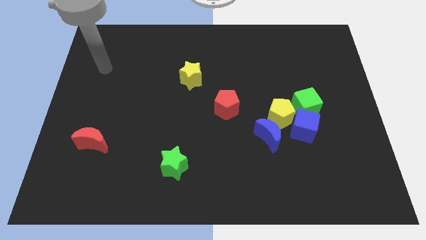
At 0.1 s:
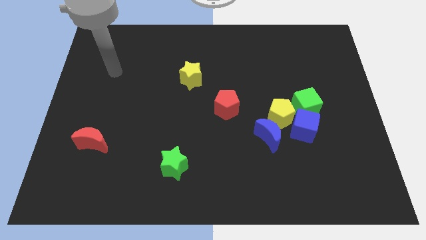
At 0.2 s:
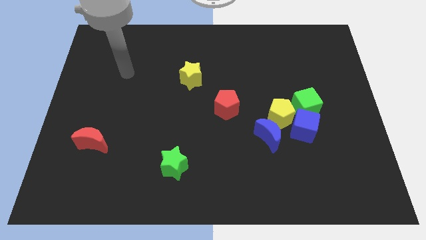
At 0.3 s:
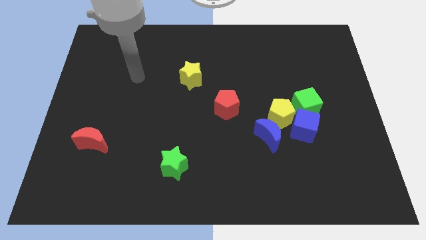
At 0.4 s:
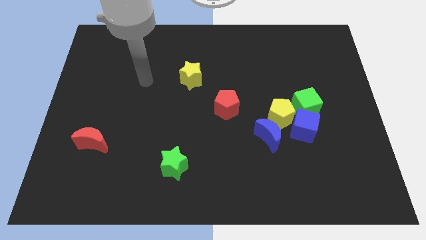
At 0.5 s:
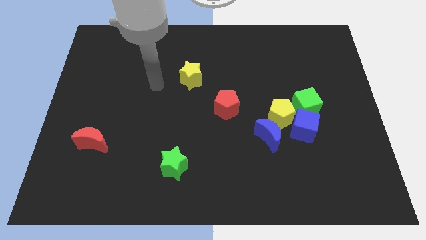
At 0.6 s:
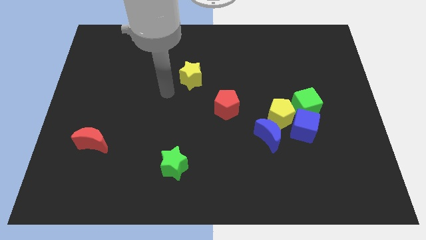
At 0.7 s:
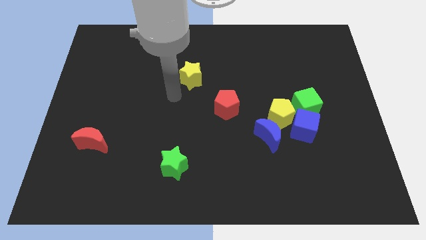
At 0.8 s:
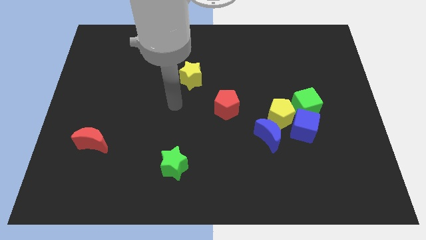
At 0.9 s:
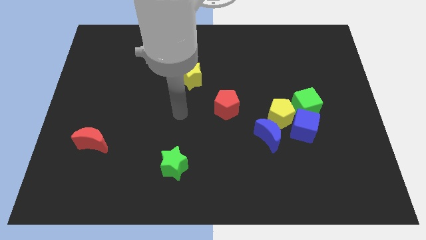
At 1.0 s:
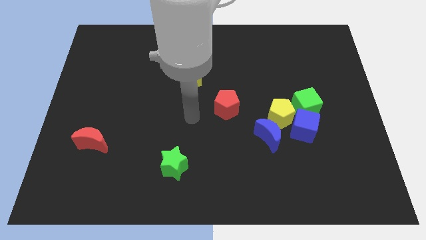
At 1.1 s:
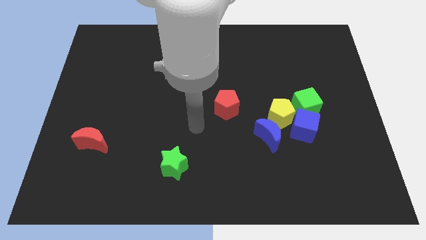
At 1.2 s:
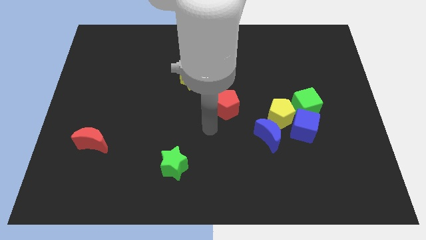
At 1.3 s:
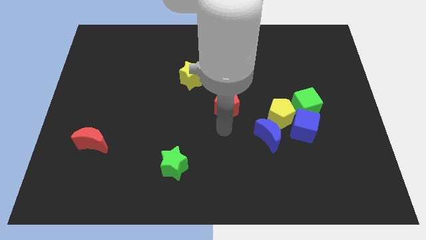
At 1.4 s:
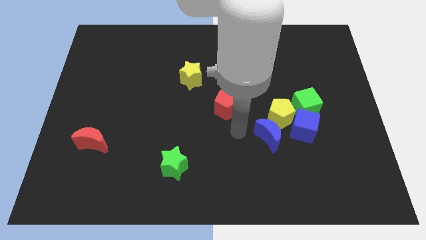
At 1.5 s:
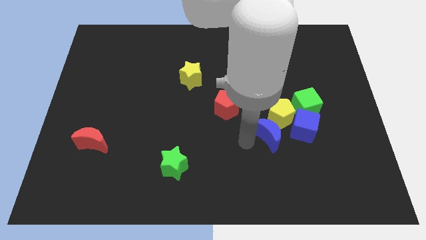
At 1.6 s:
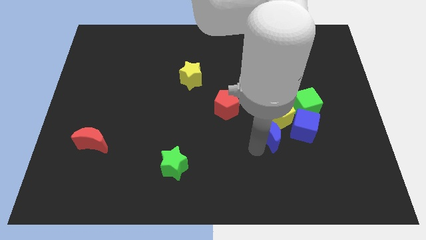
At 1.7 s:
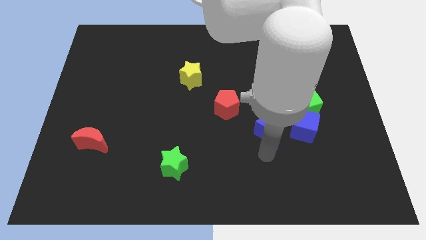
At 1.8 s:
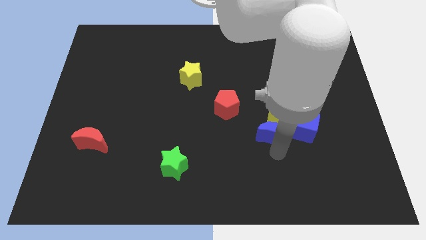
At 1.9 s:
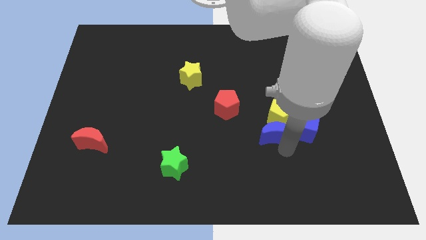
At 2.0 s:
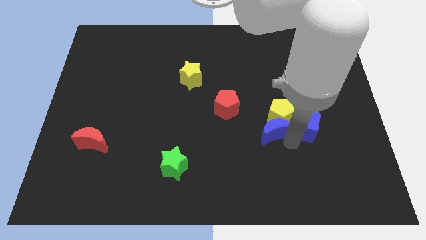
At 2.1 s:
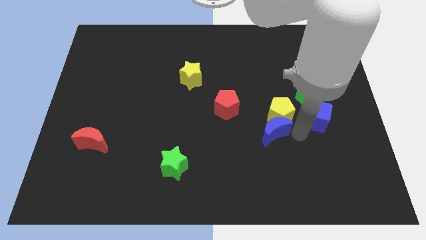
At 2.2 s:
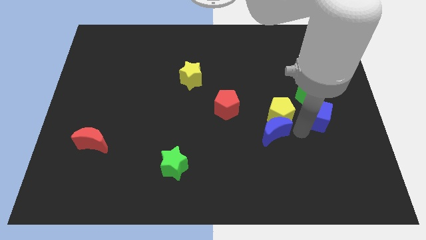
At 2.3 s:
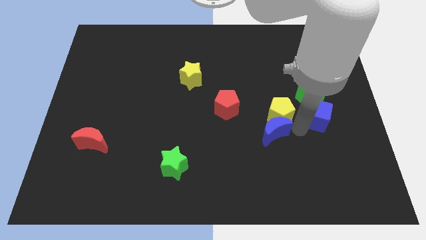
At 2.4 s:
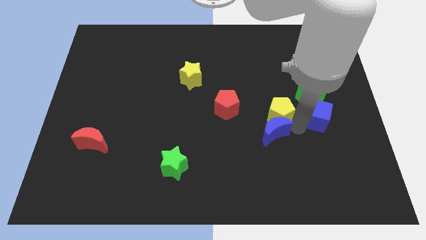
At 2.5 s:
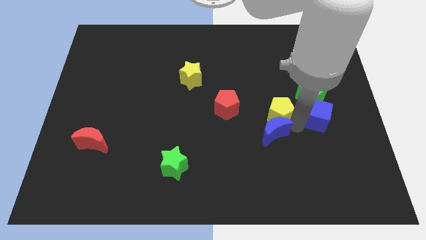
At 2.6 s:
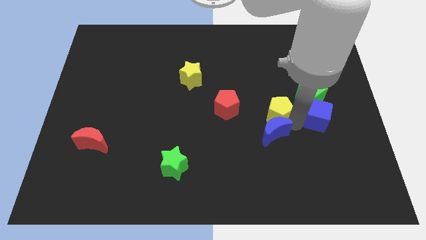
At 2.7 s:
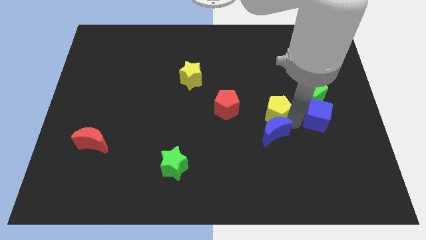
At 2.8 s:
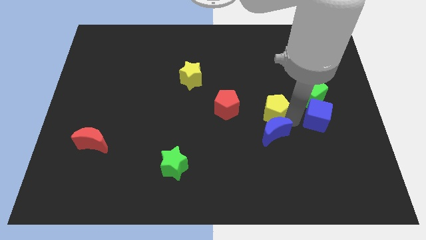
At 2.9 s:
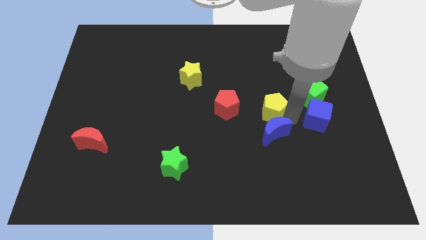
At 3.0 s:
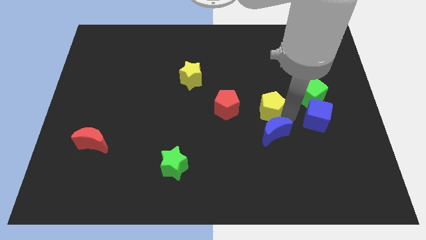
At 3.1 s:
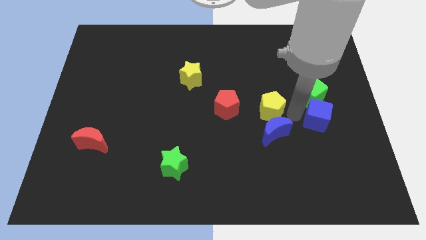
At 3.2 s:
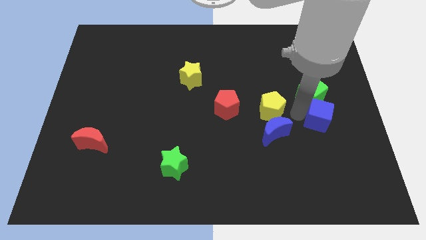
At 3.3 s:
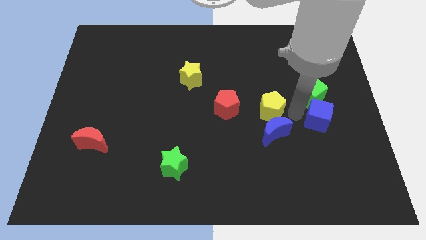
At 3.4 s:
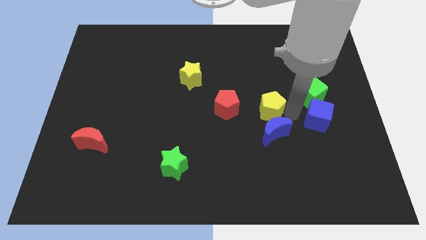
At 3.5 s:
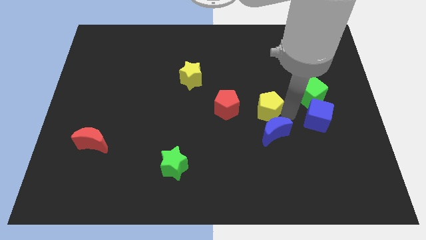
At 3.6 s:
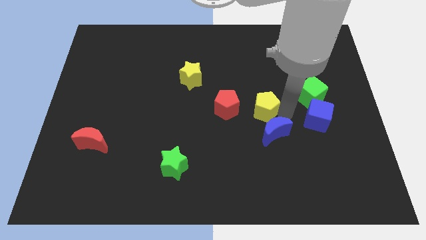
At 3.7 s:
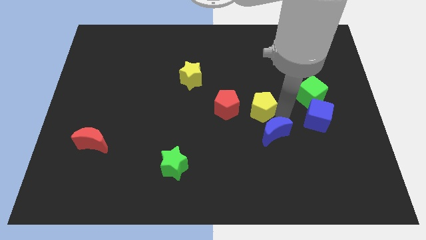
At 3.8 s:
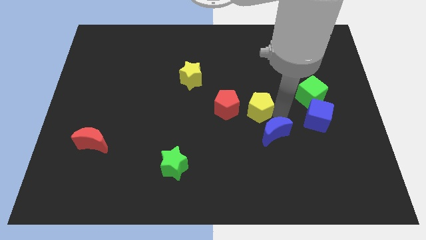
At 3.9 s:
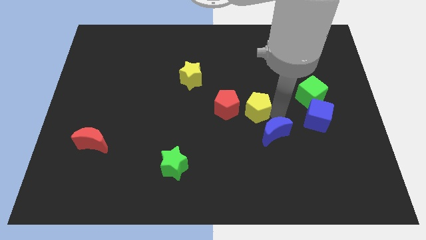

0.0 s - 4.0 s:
move the yellow pentagon away from the blue cube, blue moon, and green cube

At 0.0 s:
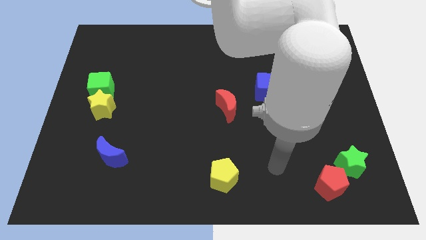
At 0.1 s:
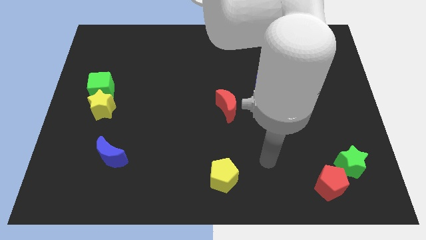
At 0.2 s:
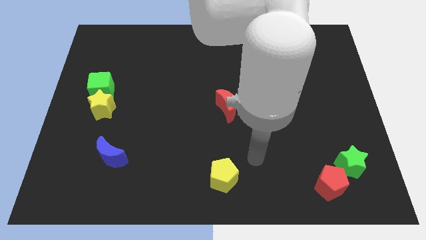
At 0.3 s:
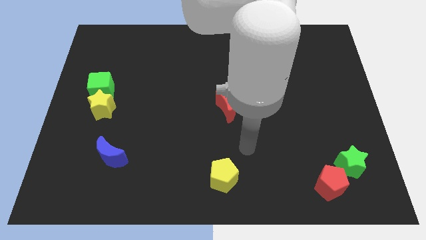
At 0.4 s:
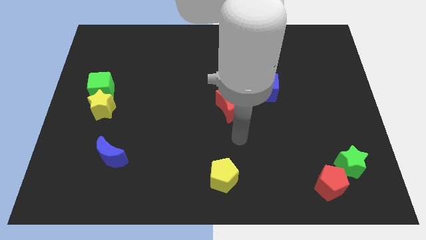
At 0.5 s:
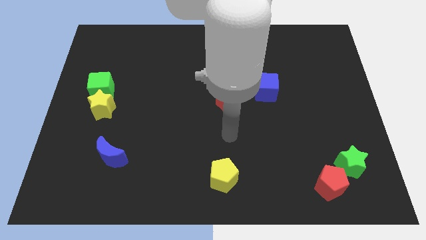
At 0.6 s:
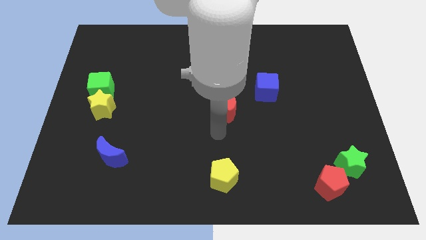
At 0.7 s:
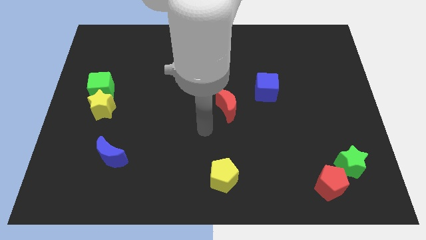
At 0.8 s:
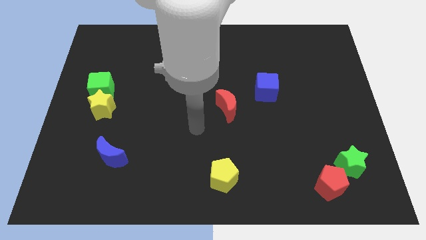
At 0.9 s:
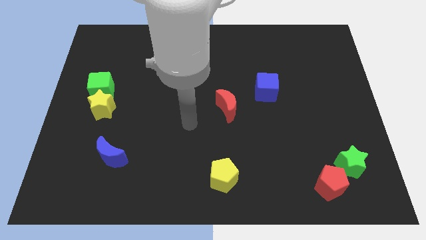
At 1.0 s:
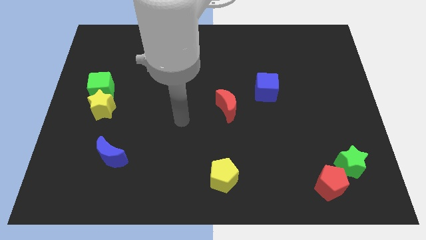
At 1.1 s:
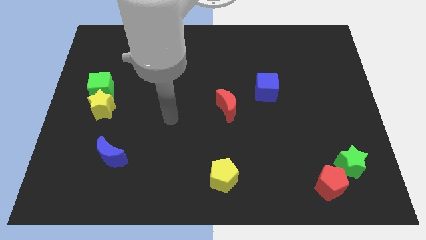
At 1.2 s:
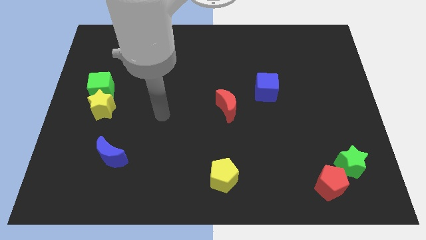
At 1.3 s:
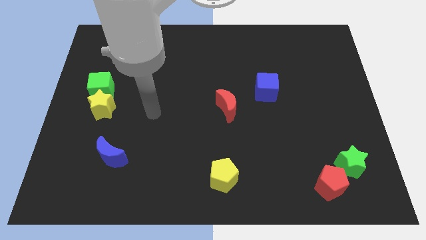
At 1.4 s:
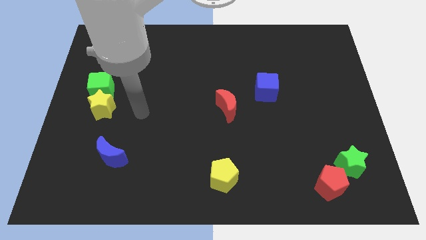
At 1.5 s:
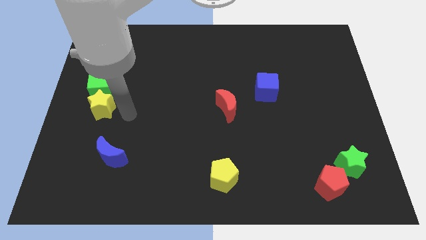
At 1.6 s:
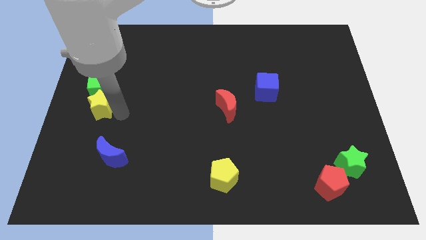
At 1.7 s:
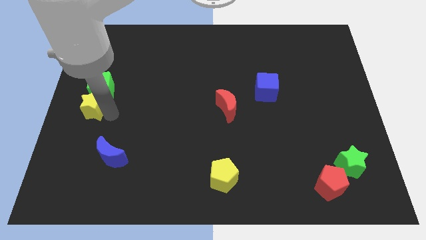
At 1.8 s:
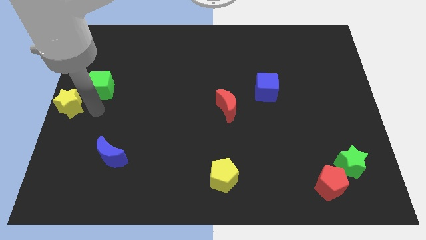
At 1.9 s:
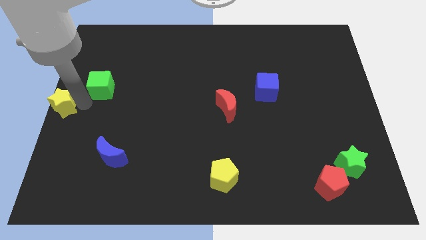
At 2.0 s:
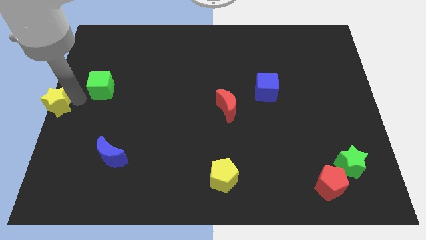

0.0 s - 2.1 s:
move the green cube away from the yellow star

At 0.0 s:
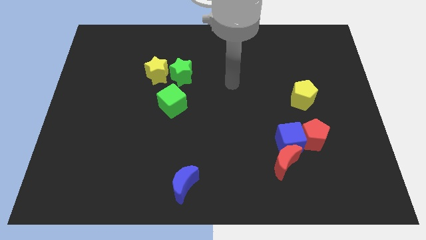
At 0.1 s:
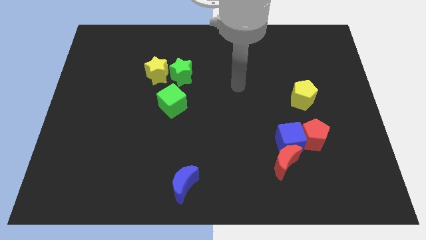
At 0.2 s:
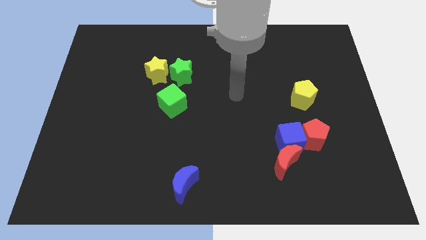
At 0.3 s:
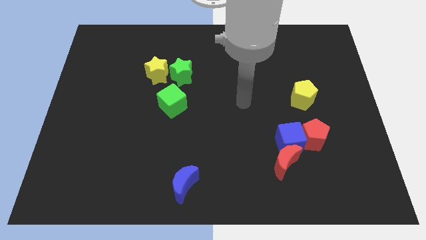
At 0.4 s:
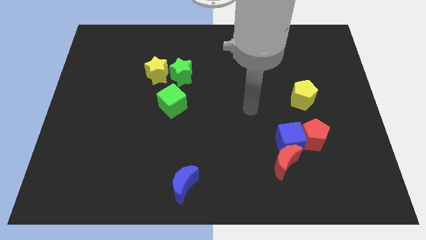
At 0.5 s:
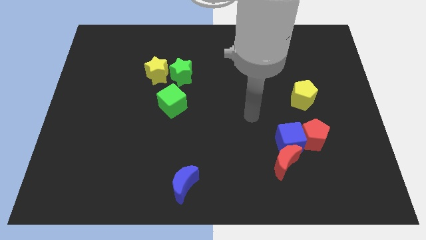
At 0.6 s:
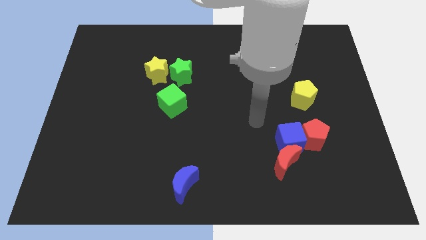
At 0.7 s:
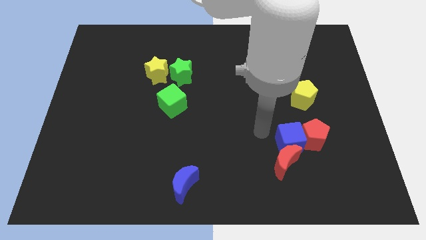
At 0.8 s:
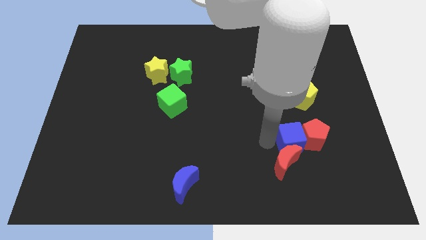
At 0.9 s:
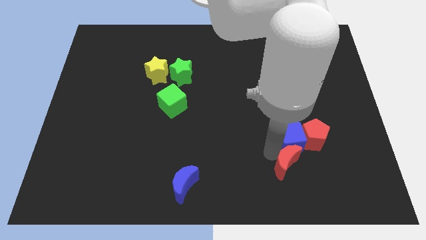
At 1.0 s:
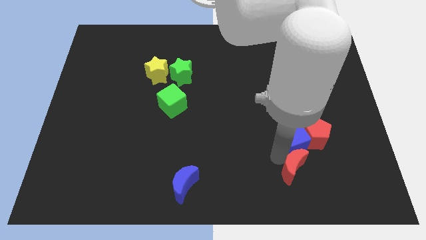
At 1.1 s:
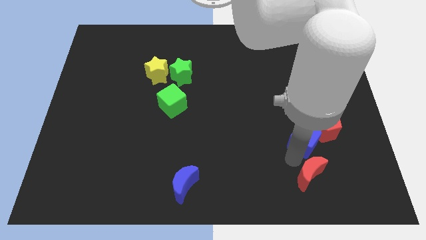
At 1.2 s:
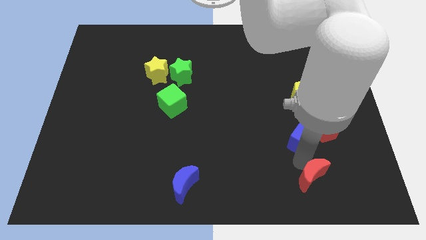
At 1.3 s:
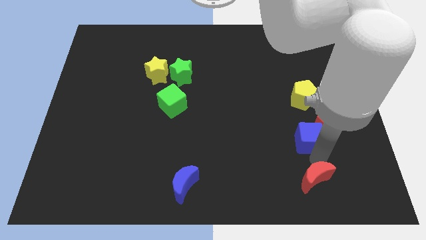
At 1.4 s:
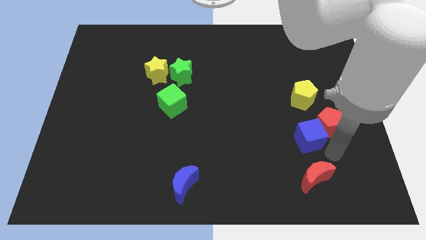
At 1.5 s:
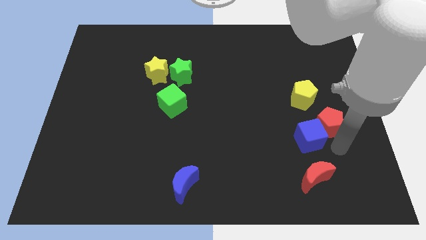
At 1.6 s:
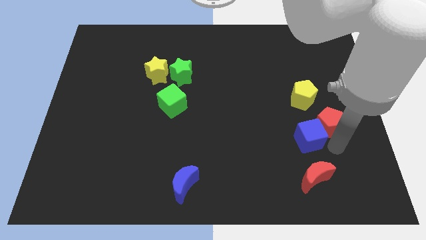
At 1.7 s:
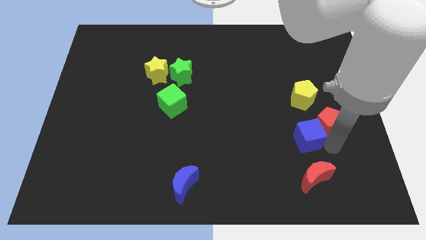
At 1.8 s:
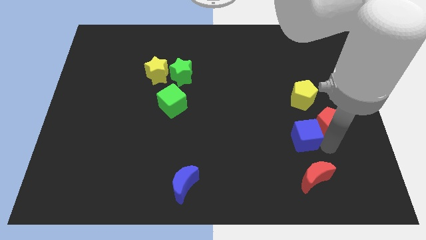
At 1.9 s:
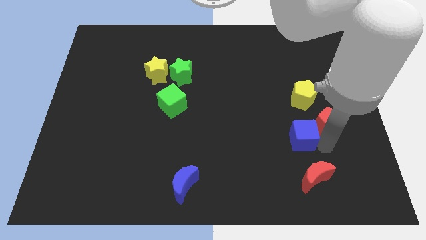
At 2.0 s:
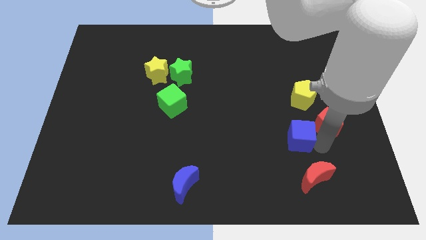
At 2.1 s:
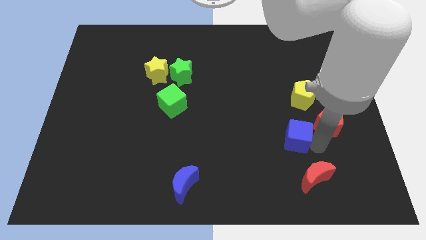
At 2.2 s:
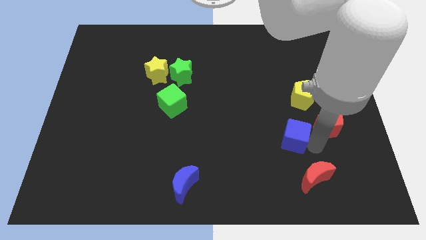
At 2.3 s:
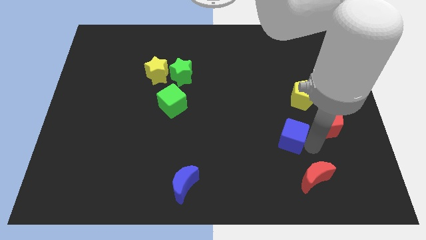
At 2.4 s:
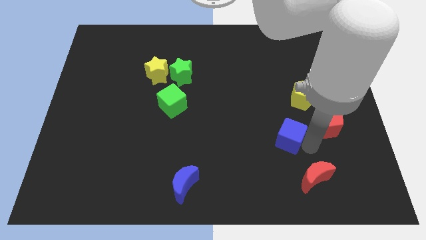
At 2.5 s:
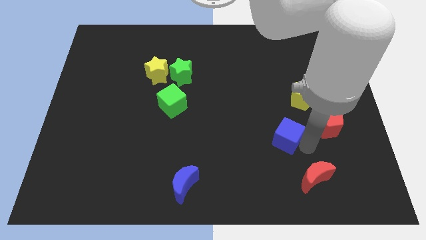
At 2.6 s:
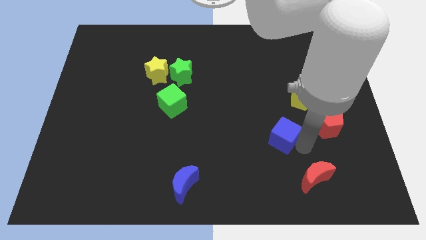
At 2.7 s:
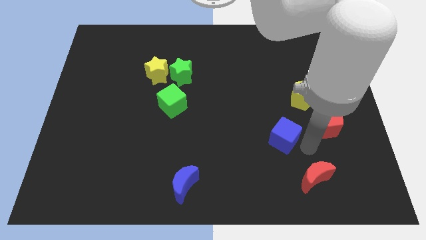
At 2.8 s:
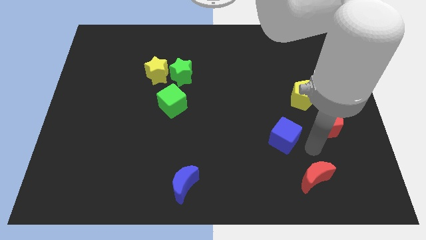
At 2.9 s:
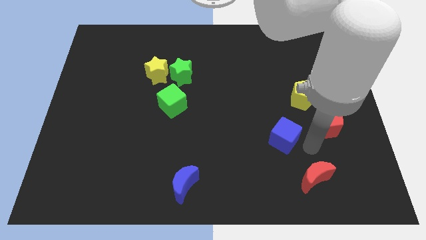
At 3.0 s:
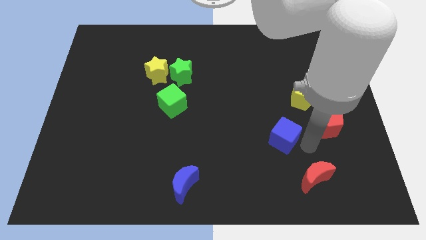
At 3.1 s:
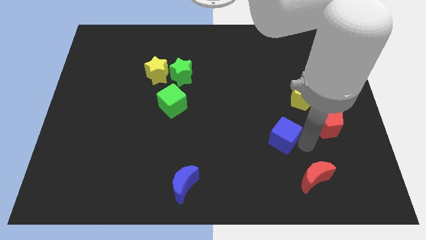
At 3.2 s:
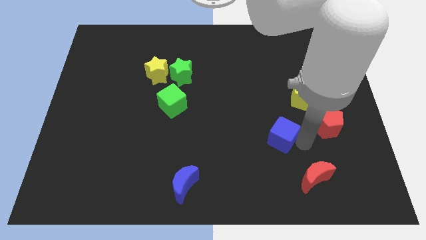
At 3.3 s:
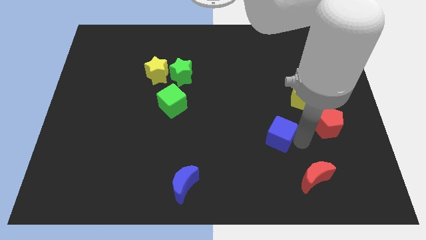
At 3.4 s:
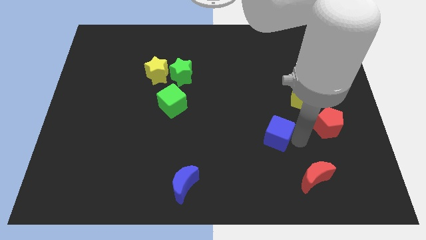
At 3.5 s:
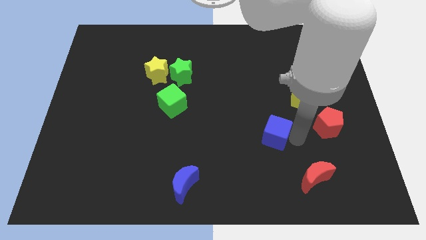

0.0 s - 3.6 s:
separate the blue cube from the red pentagon and red moon
